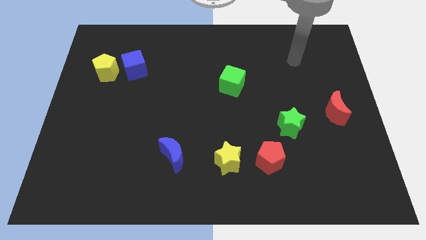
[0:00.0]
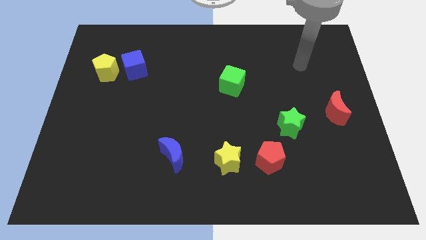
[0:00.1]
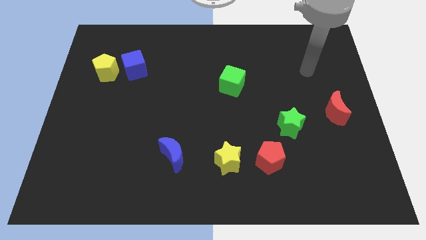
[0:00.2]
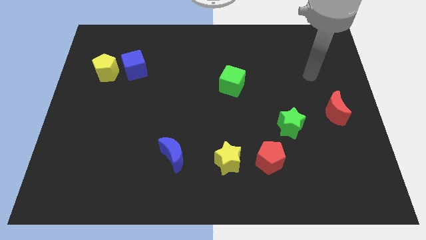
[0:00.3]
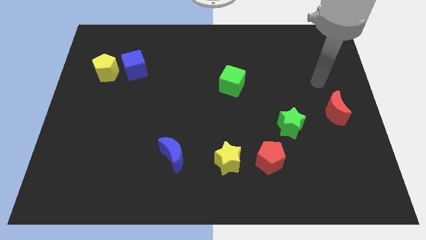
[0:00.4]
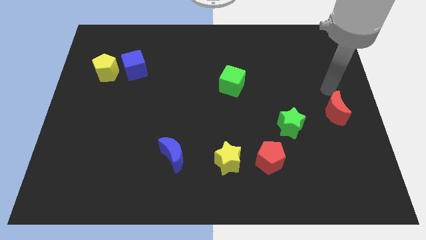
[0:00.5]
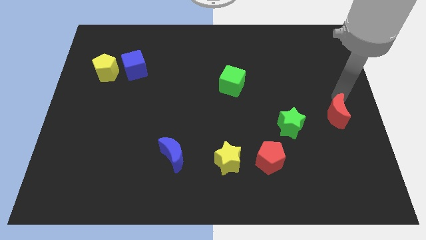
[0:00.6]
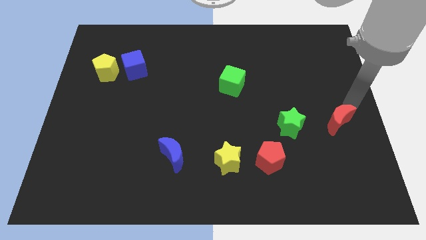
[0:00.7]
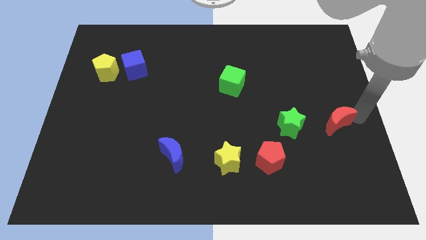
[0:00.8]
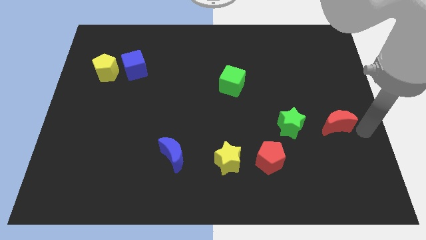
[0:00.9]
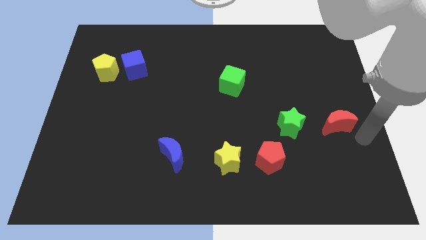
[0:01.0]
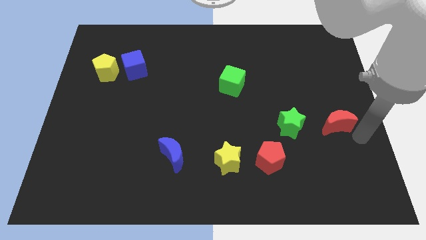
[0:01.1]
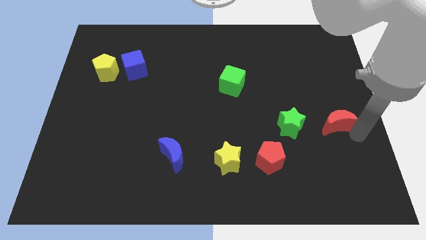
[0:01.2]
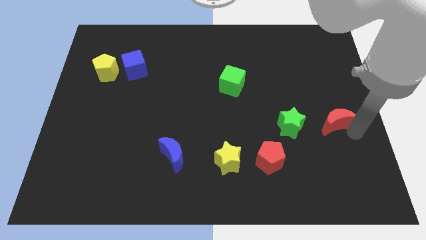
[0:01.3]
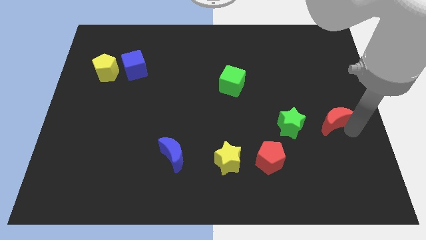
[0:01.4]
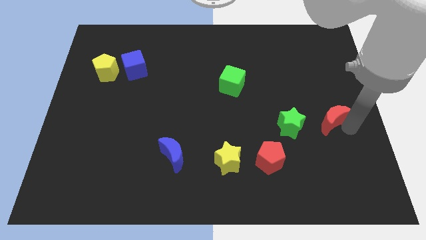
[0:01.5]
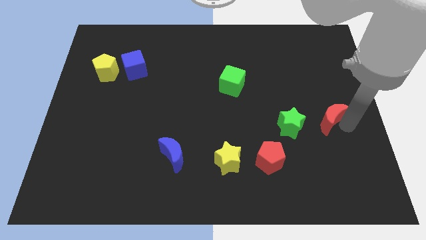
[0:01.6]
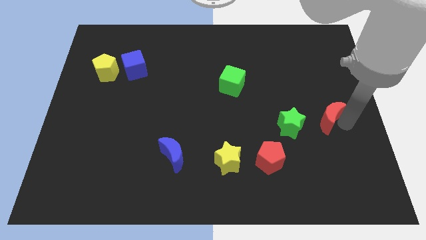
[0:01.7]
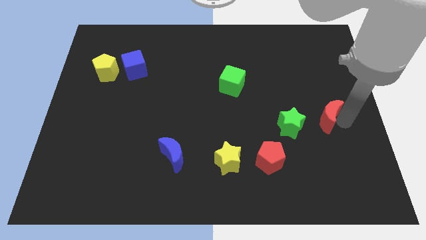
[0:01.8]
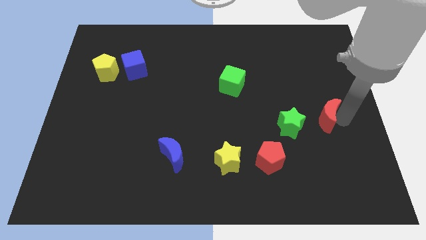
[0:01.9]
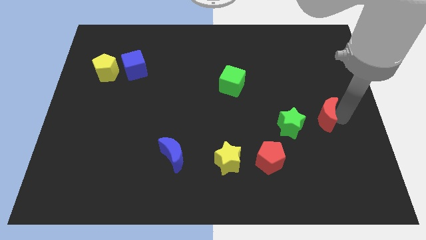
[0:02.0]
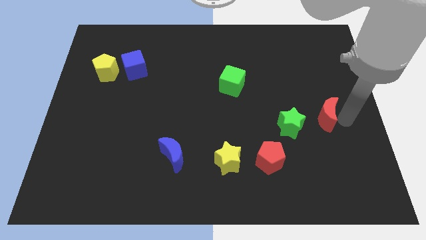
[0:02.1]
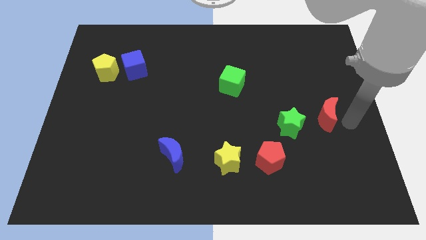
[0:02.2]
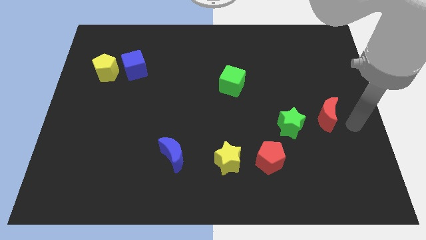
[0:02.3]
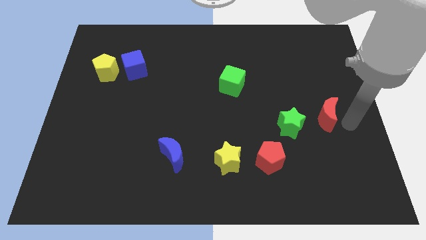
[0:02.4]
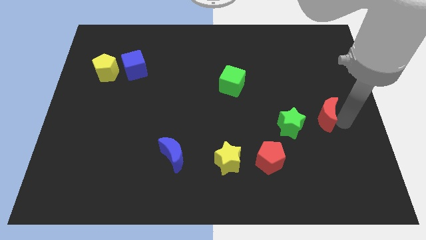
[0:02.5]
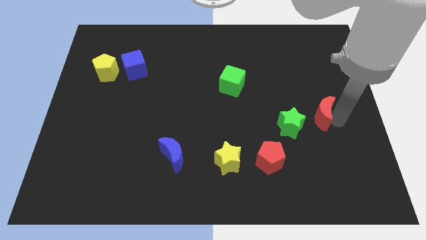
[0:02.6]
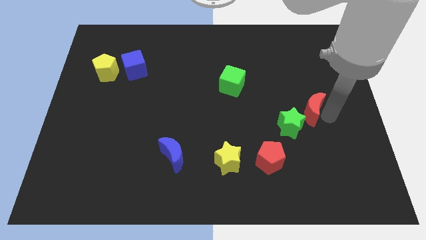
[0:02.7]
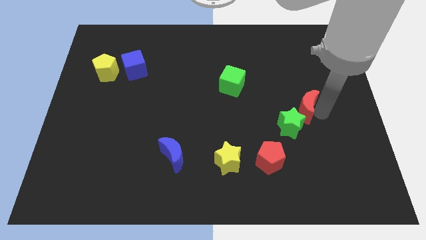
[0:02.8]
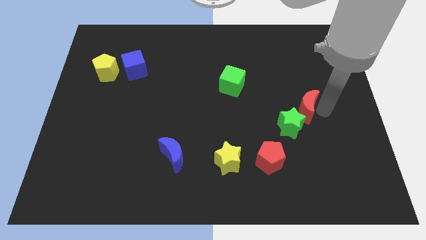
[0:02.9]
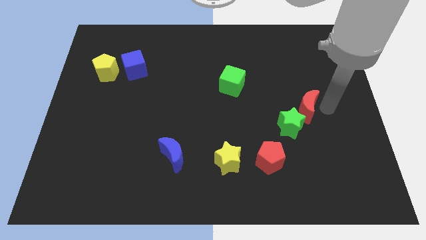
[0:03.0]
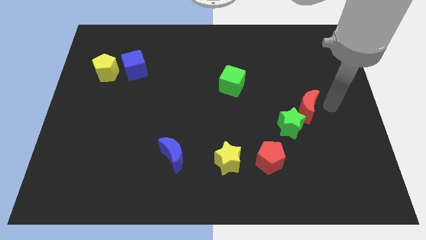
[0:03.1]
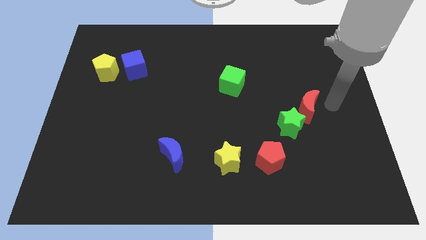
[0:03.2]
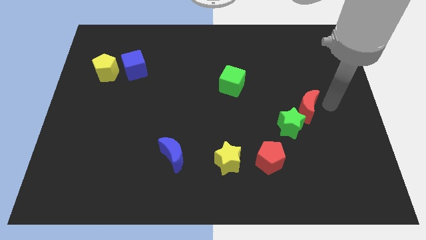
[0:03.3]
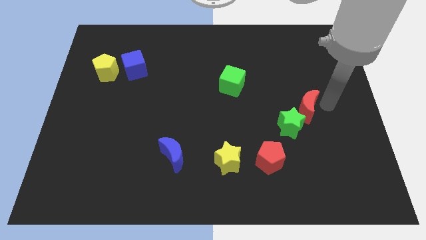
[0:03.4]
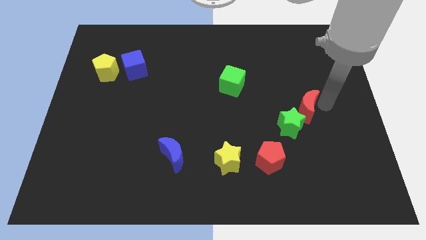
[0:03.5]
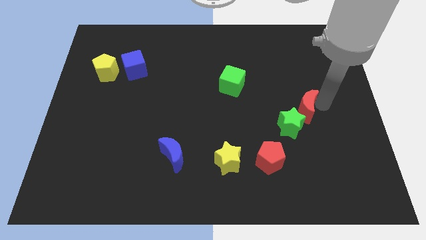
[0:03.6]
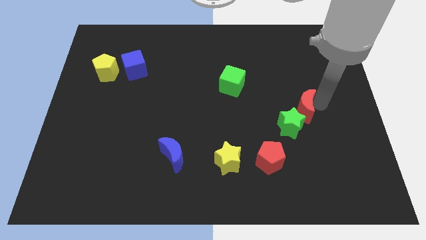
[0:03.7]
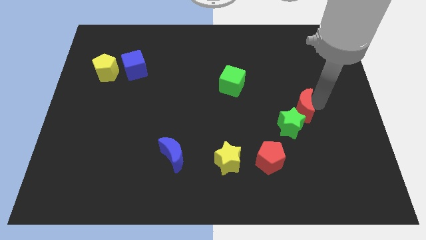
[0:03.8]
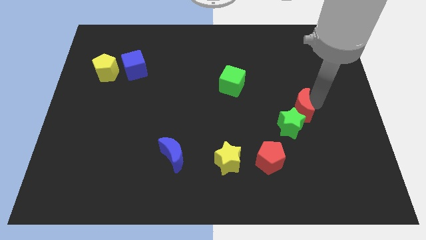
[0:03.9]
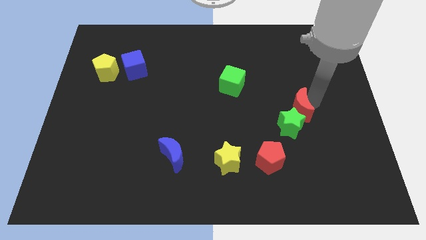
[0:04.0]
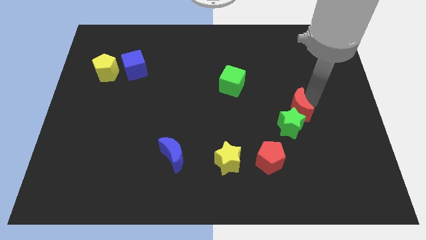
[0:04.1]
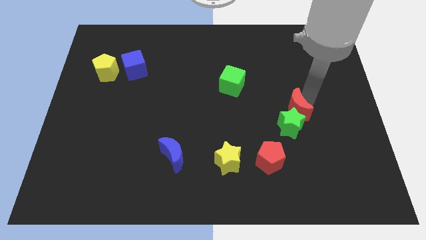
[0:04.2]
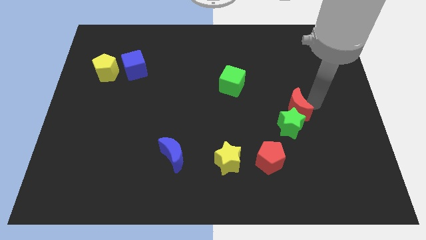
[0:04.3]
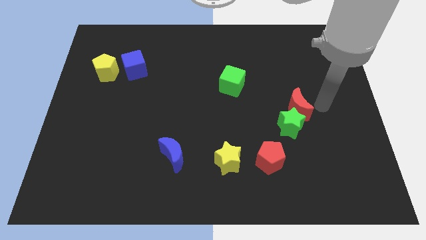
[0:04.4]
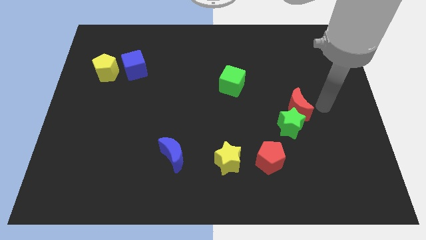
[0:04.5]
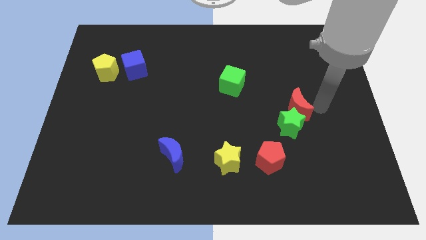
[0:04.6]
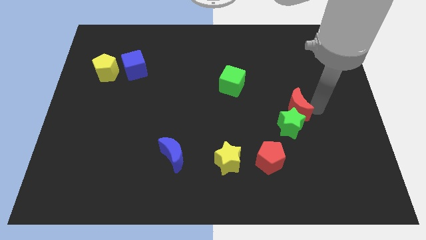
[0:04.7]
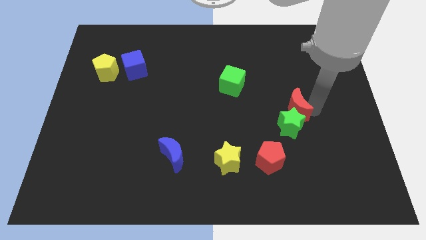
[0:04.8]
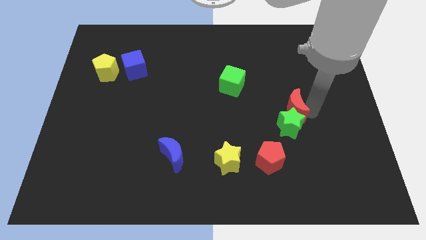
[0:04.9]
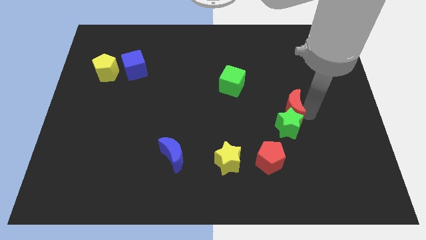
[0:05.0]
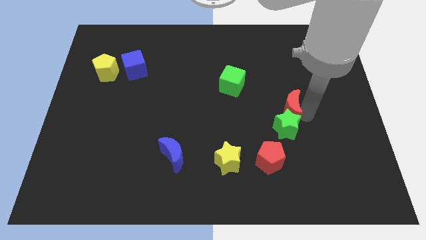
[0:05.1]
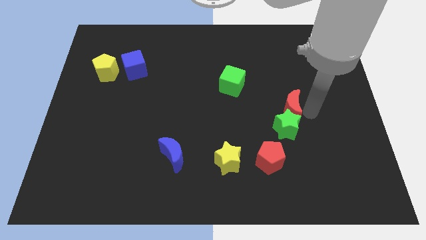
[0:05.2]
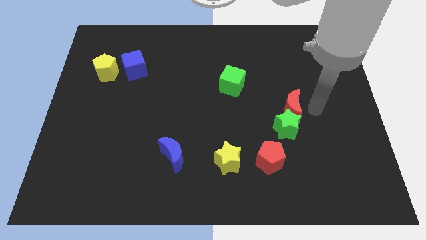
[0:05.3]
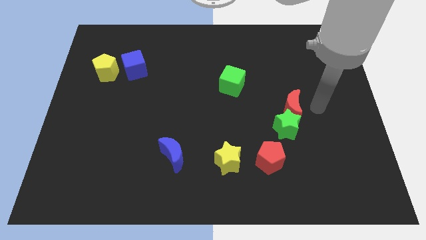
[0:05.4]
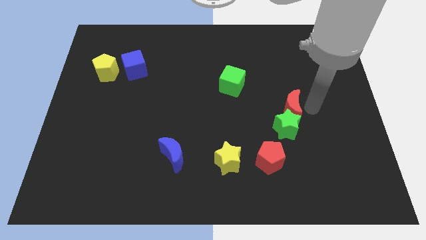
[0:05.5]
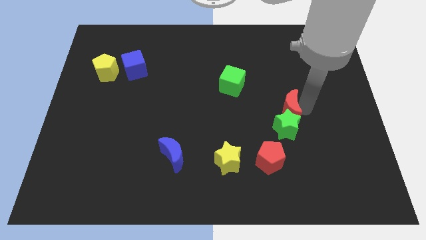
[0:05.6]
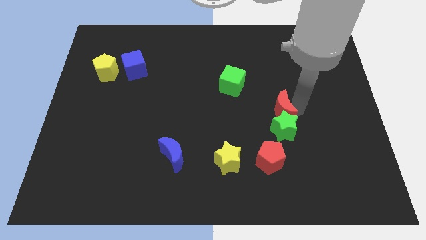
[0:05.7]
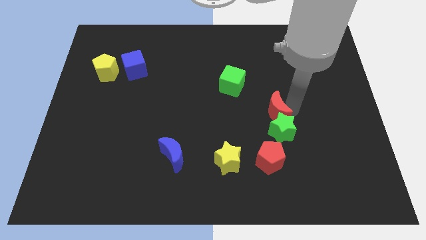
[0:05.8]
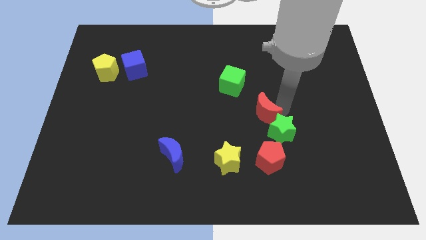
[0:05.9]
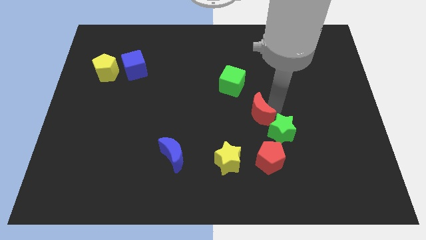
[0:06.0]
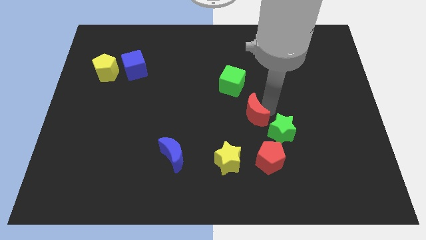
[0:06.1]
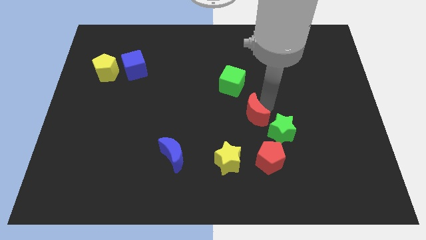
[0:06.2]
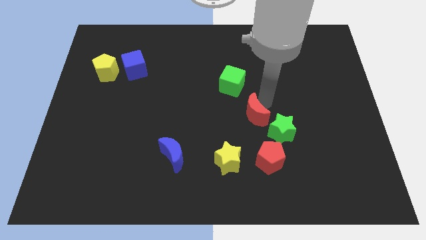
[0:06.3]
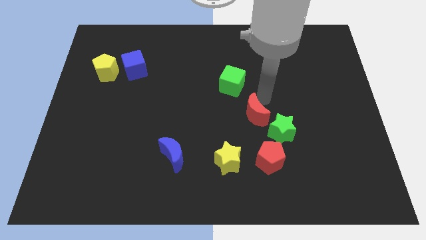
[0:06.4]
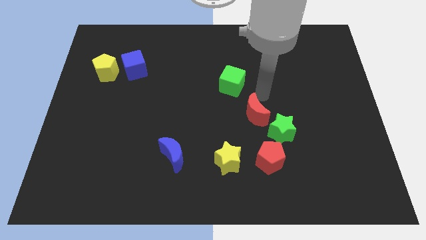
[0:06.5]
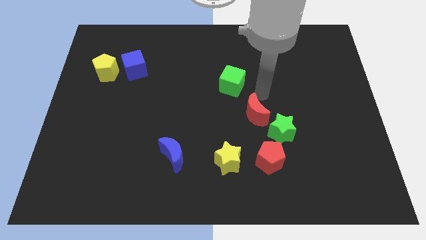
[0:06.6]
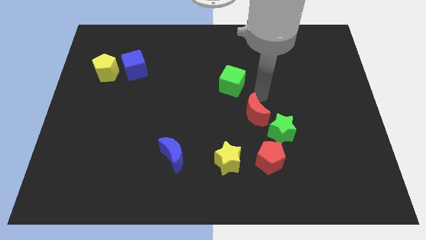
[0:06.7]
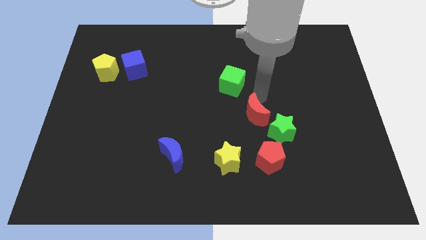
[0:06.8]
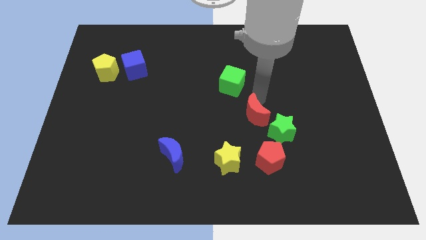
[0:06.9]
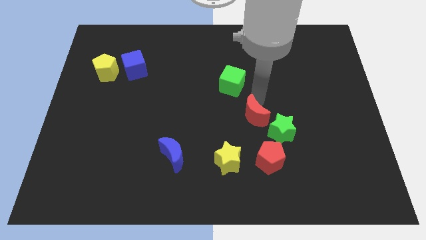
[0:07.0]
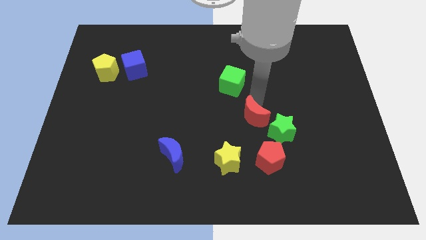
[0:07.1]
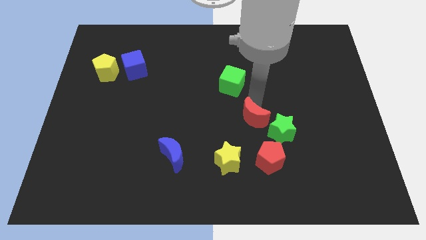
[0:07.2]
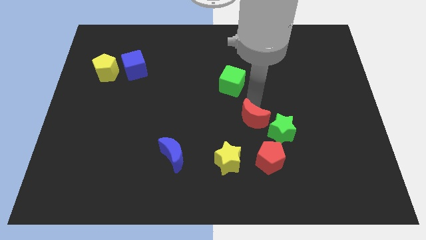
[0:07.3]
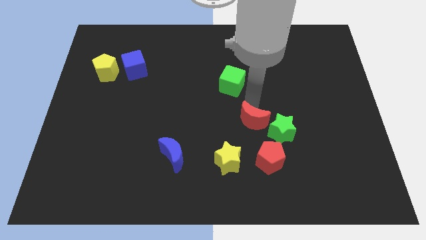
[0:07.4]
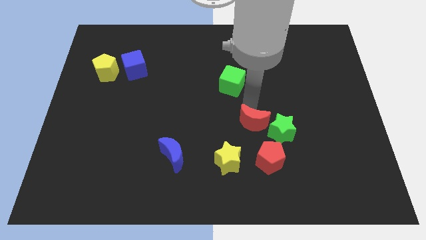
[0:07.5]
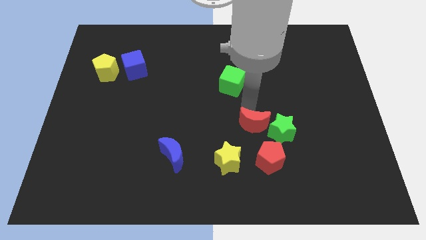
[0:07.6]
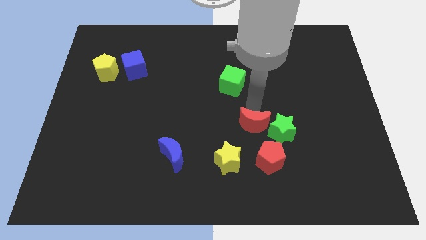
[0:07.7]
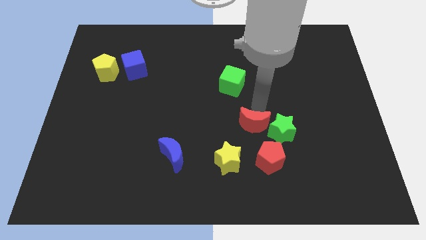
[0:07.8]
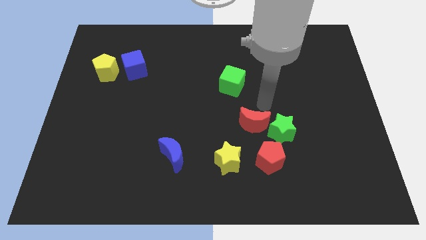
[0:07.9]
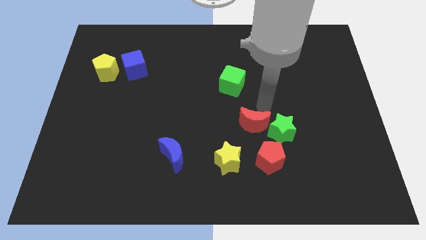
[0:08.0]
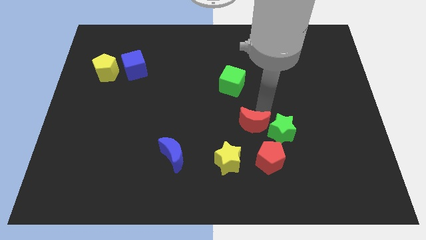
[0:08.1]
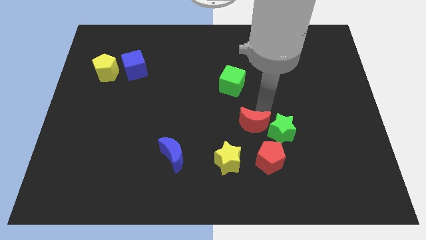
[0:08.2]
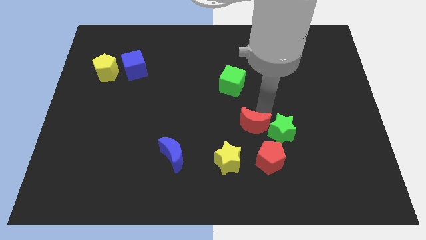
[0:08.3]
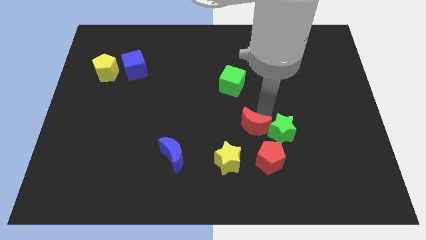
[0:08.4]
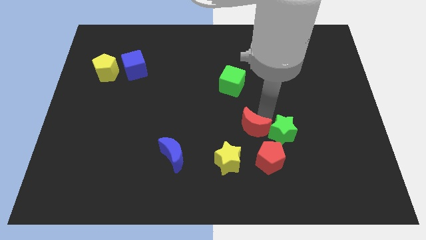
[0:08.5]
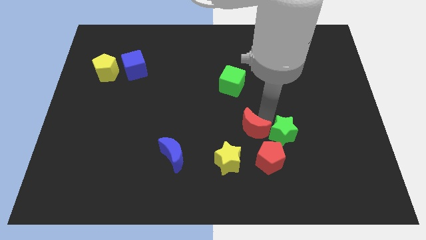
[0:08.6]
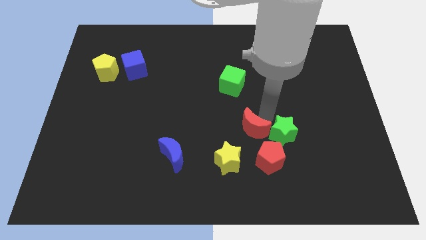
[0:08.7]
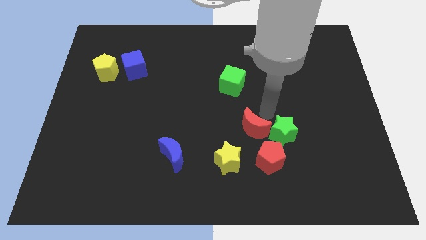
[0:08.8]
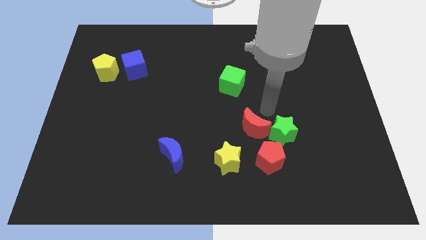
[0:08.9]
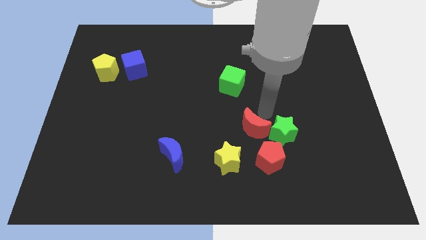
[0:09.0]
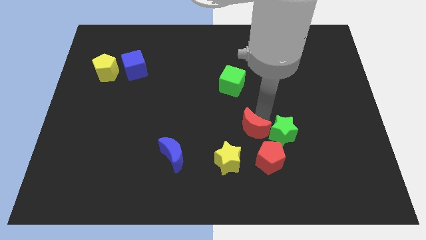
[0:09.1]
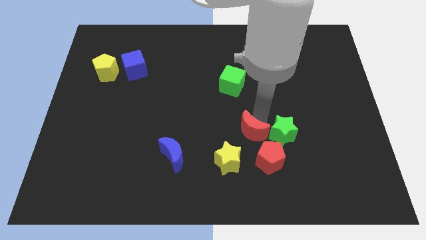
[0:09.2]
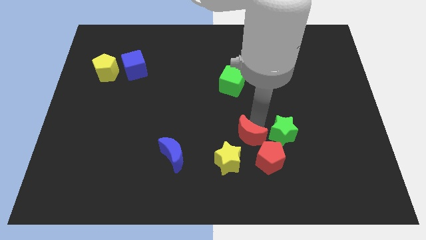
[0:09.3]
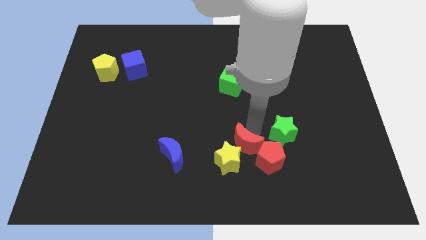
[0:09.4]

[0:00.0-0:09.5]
push the red moon to the yellow star
